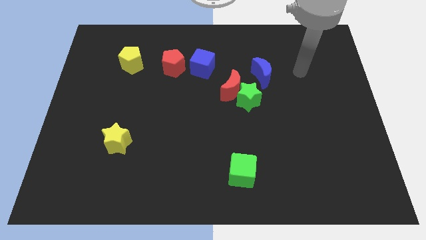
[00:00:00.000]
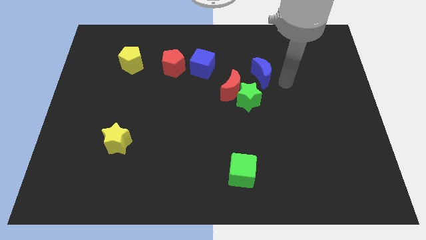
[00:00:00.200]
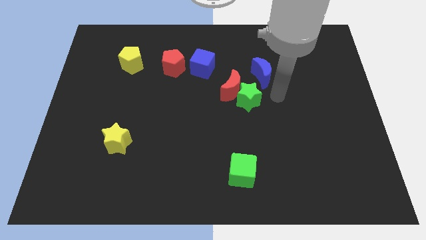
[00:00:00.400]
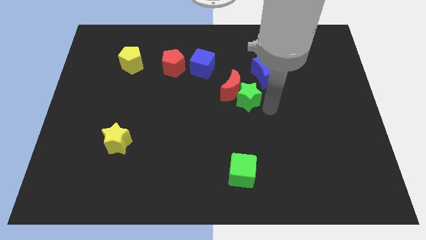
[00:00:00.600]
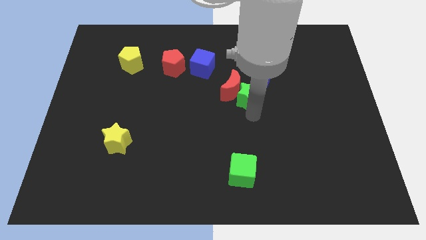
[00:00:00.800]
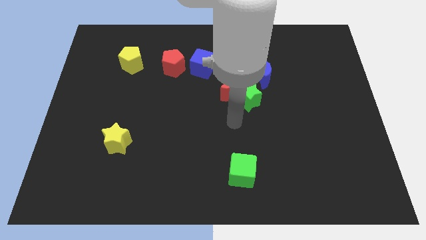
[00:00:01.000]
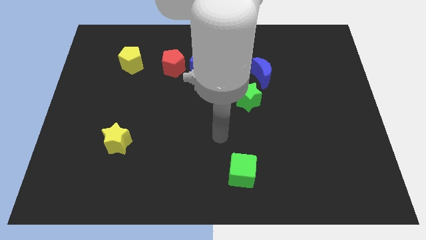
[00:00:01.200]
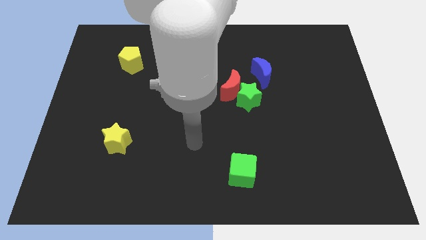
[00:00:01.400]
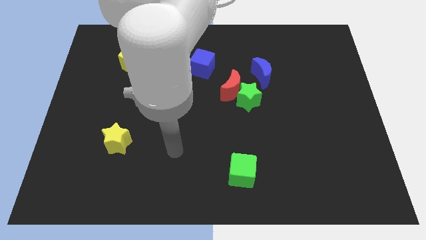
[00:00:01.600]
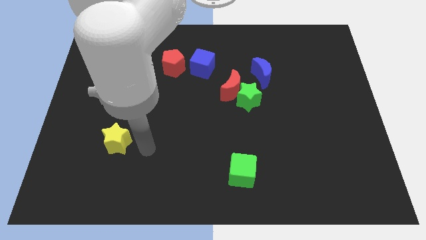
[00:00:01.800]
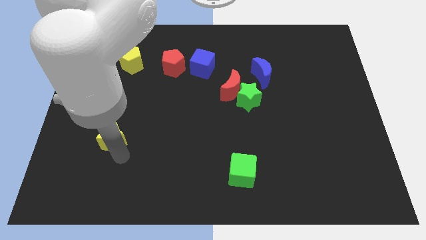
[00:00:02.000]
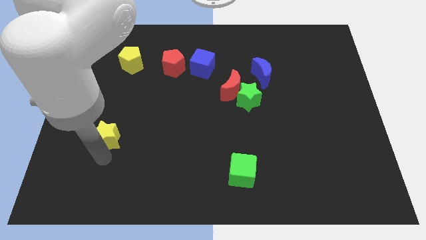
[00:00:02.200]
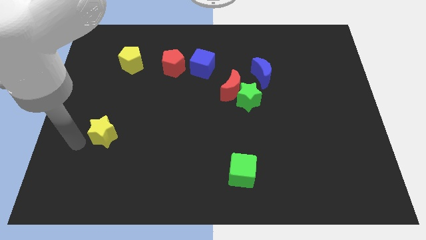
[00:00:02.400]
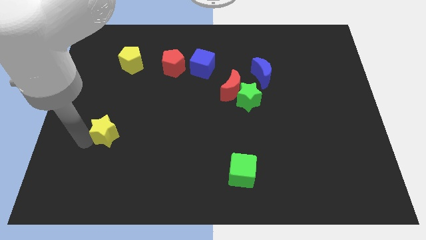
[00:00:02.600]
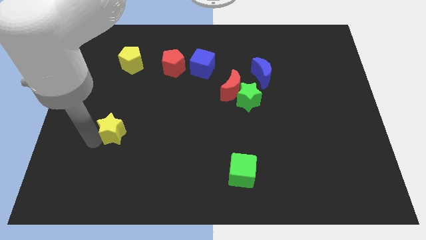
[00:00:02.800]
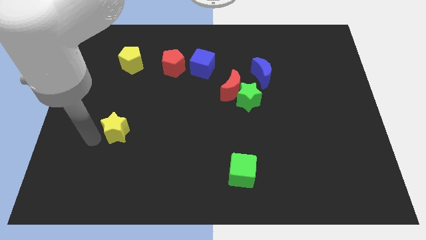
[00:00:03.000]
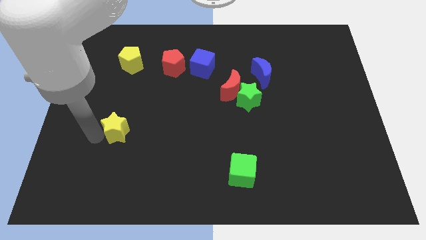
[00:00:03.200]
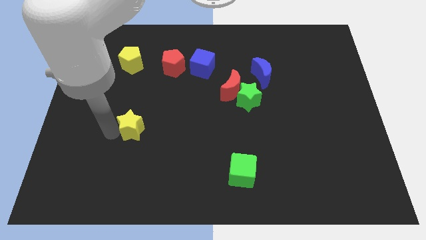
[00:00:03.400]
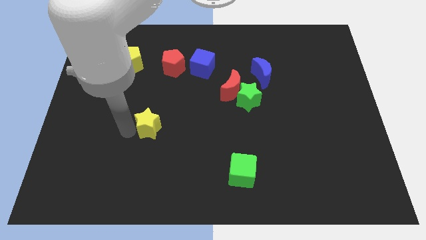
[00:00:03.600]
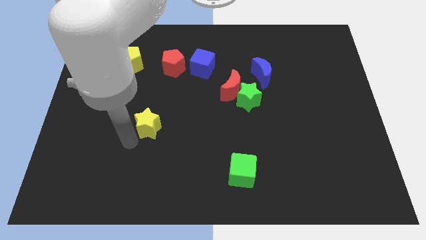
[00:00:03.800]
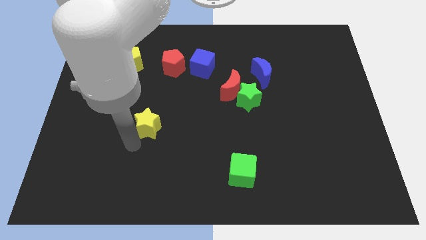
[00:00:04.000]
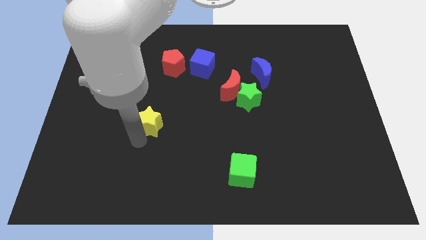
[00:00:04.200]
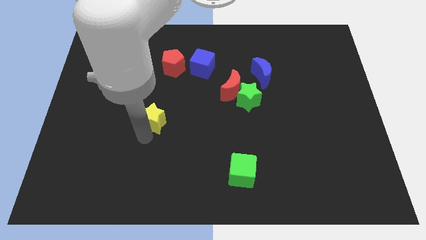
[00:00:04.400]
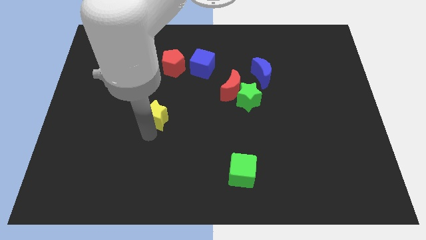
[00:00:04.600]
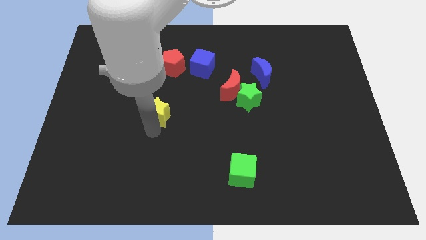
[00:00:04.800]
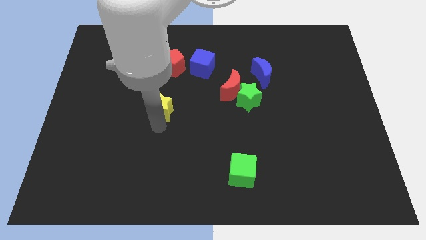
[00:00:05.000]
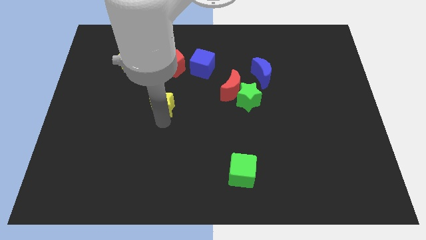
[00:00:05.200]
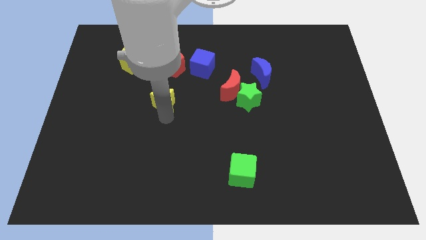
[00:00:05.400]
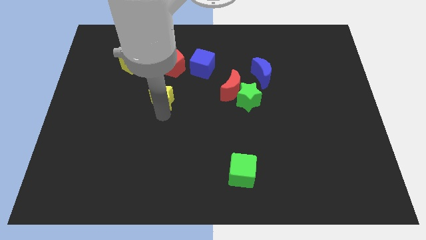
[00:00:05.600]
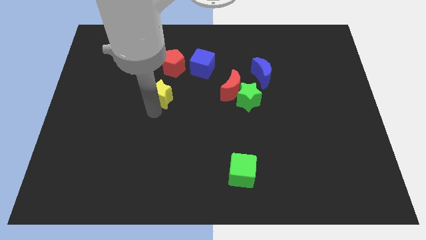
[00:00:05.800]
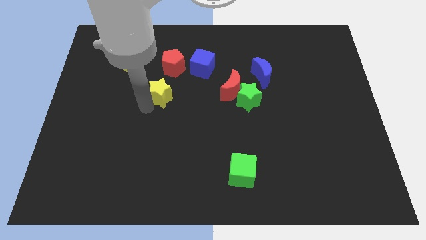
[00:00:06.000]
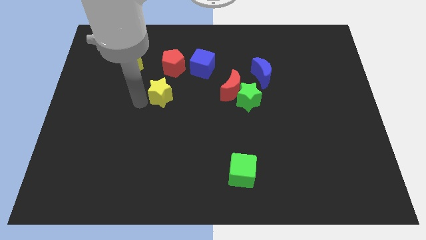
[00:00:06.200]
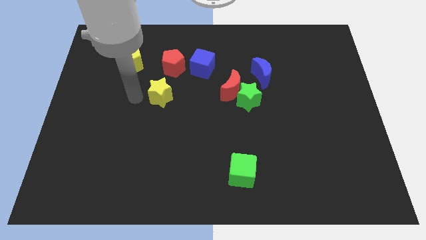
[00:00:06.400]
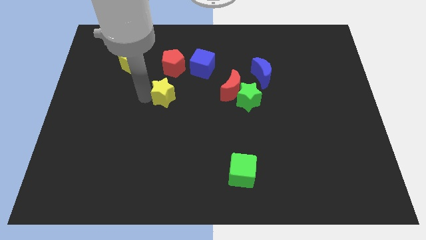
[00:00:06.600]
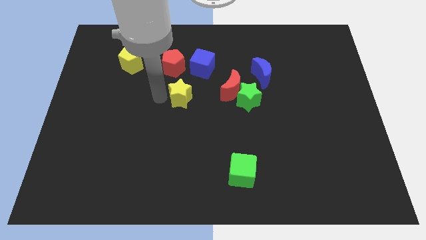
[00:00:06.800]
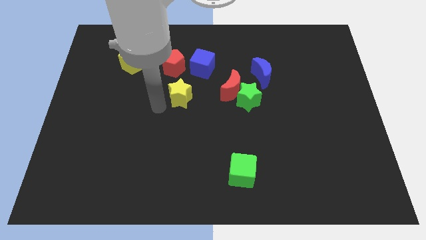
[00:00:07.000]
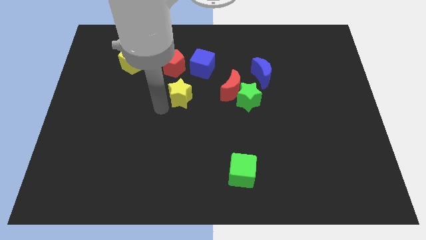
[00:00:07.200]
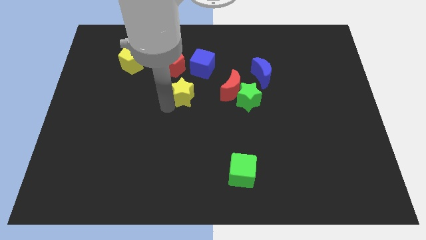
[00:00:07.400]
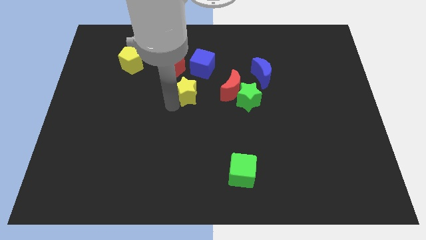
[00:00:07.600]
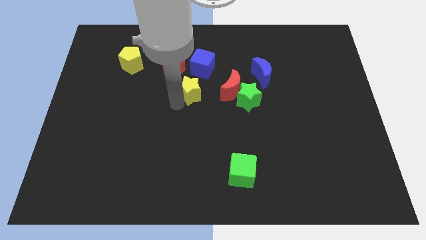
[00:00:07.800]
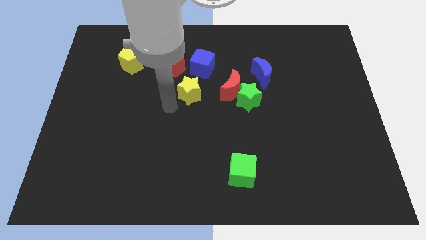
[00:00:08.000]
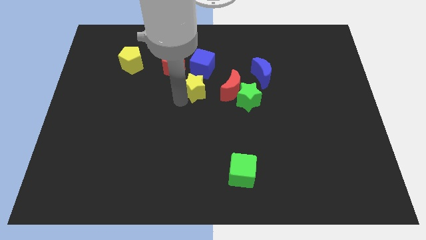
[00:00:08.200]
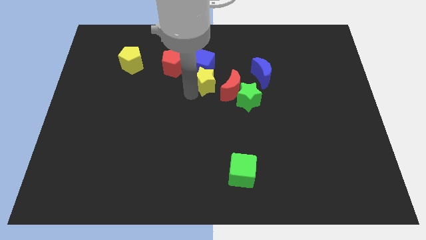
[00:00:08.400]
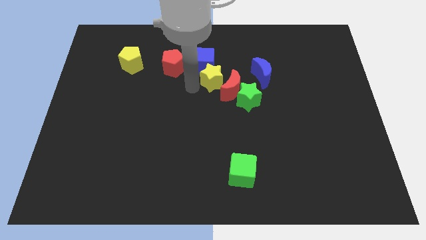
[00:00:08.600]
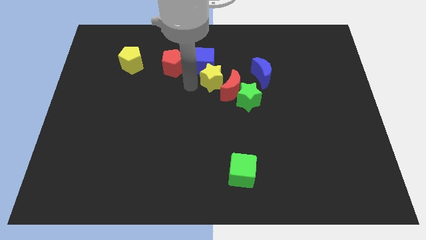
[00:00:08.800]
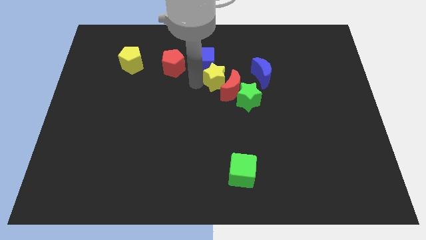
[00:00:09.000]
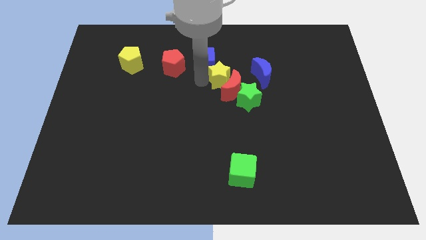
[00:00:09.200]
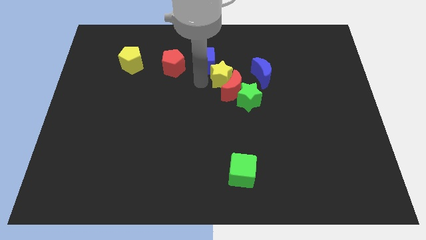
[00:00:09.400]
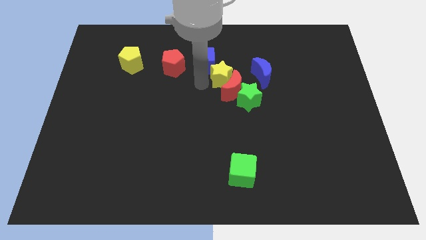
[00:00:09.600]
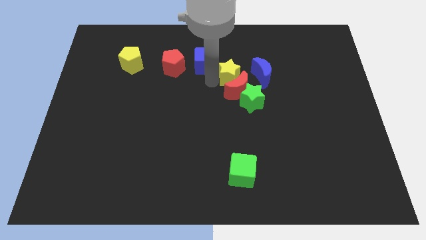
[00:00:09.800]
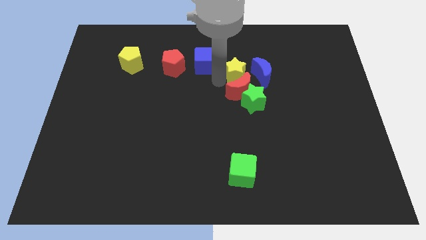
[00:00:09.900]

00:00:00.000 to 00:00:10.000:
put the yellow star to the top left side of the blue moon

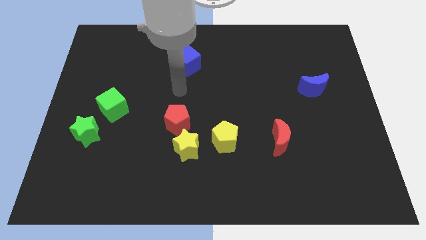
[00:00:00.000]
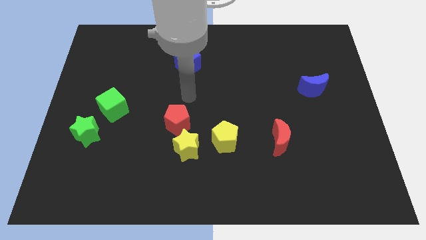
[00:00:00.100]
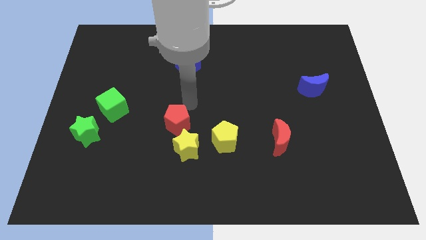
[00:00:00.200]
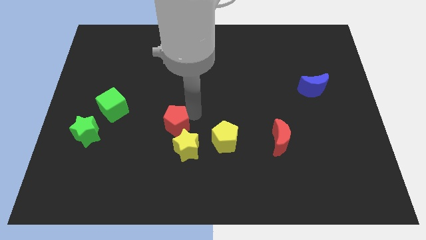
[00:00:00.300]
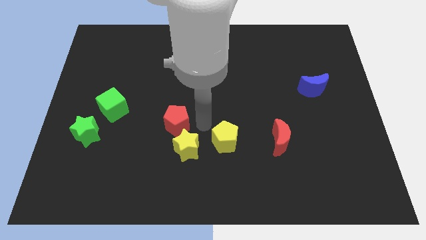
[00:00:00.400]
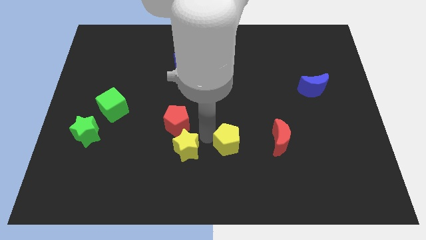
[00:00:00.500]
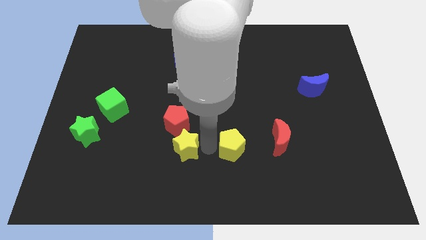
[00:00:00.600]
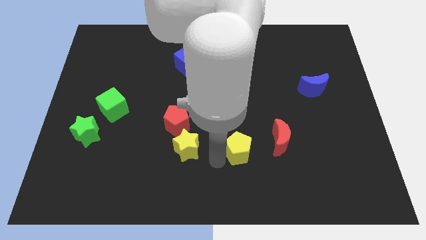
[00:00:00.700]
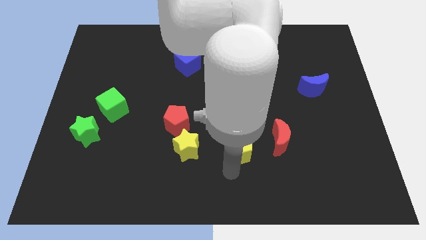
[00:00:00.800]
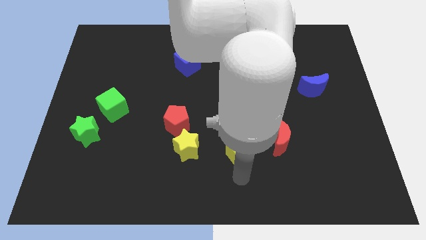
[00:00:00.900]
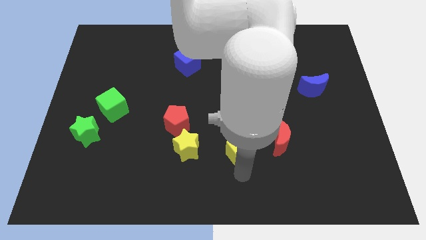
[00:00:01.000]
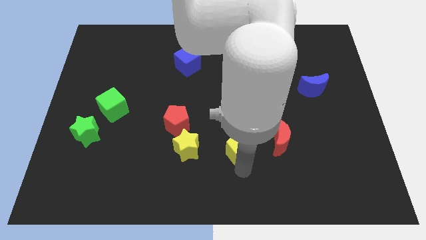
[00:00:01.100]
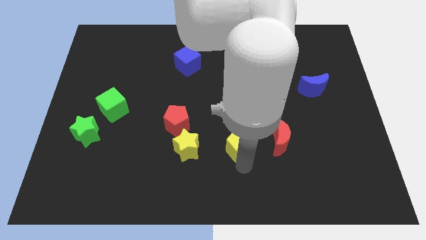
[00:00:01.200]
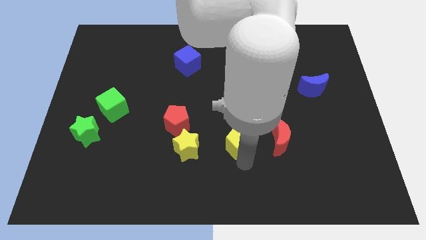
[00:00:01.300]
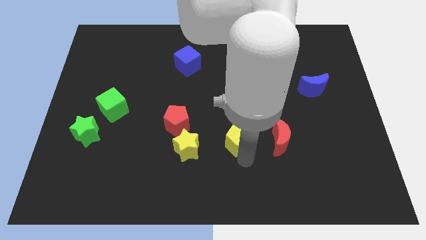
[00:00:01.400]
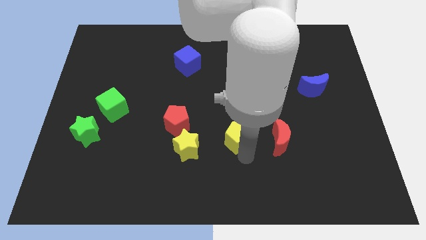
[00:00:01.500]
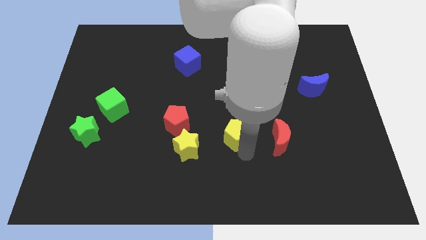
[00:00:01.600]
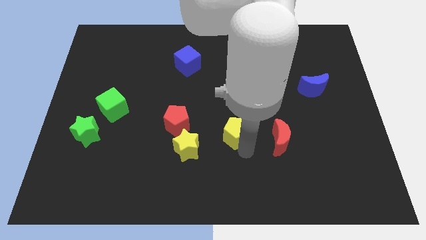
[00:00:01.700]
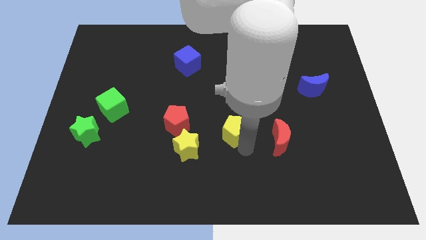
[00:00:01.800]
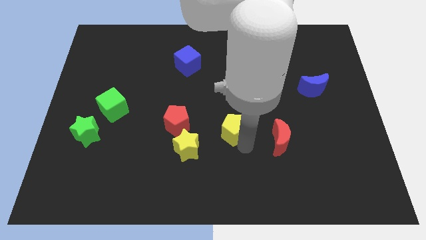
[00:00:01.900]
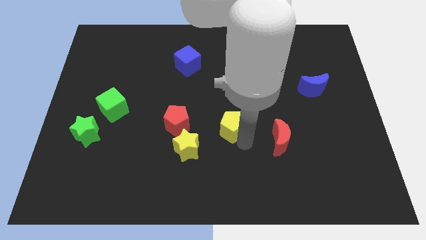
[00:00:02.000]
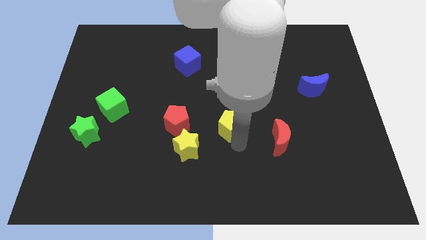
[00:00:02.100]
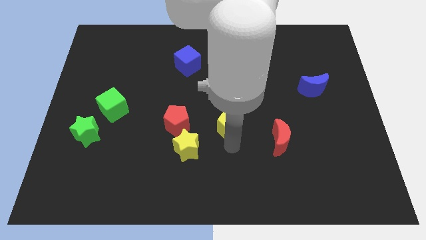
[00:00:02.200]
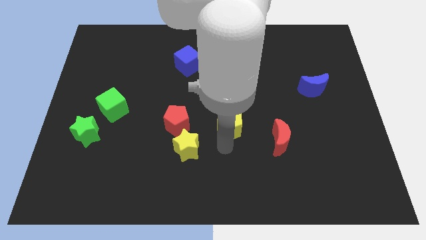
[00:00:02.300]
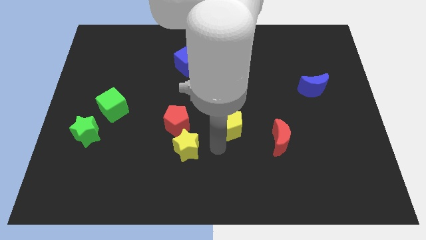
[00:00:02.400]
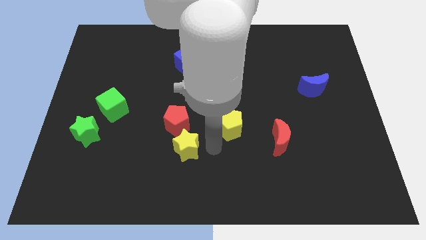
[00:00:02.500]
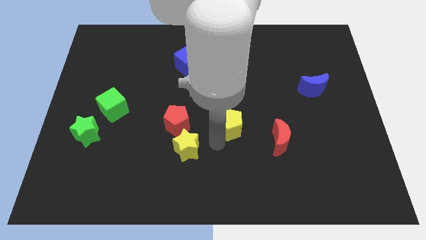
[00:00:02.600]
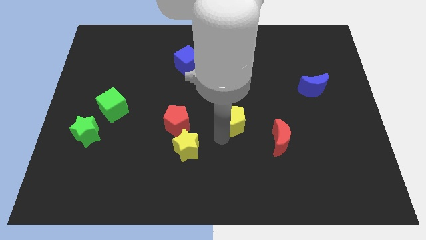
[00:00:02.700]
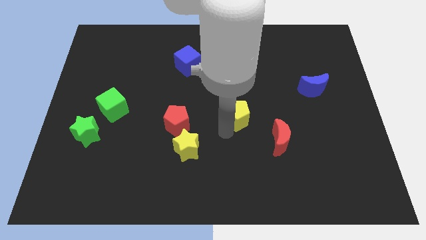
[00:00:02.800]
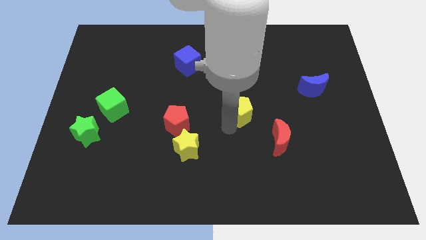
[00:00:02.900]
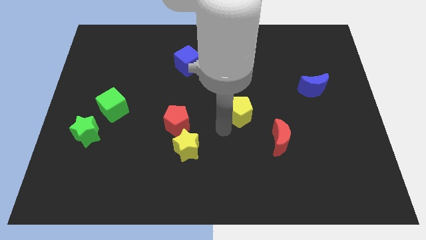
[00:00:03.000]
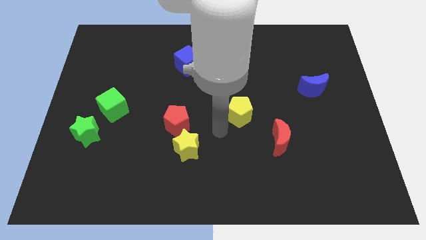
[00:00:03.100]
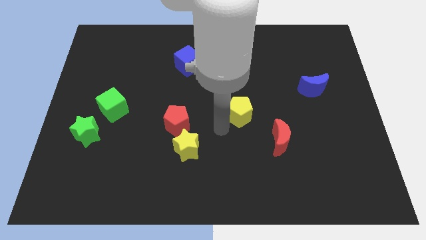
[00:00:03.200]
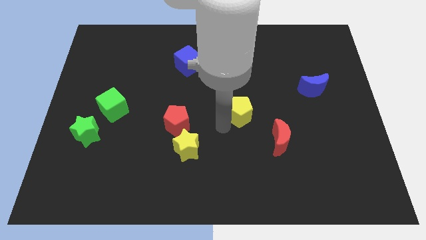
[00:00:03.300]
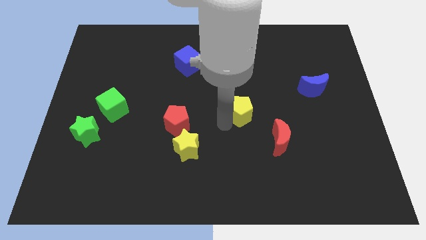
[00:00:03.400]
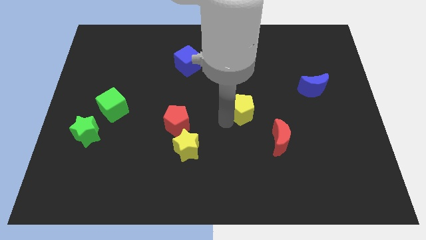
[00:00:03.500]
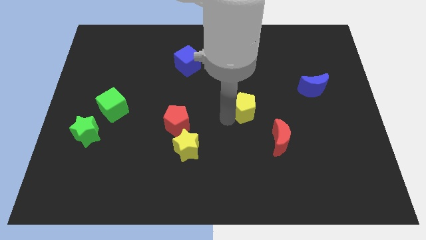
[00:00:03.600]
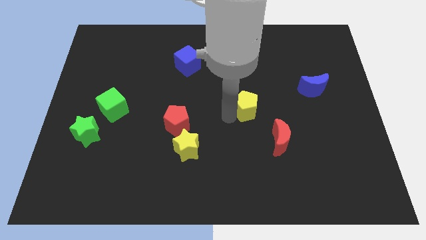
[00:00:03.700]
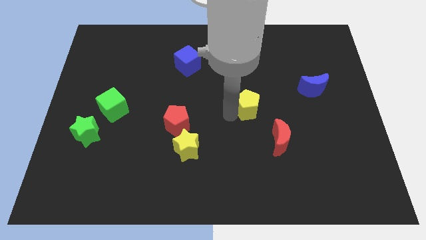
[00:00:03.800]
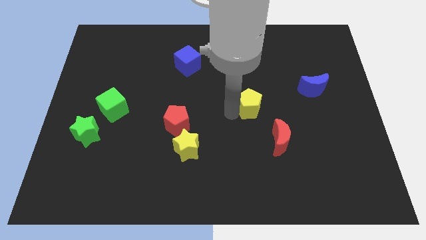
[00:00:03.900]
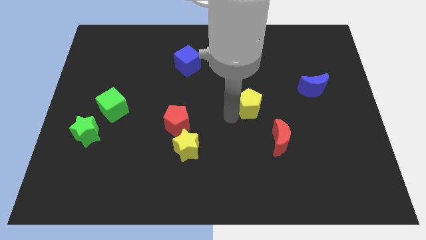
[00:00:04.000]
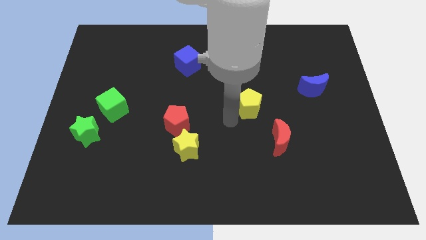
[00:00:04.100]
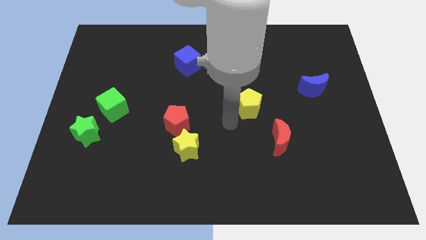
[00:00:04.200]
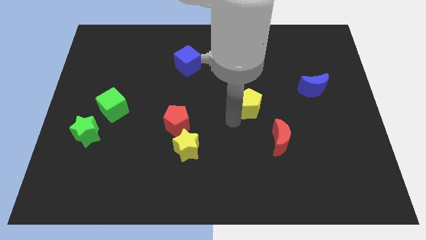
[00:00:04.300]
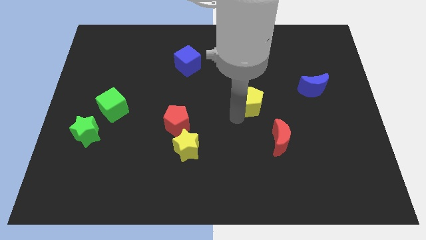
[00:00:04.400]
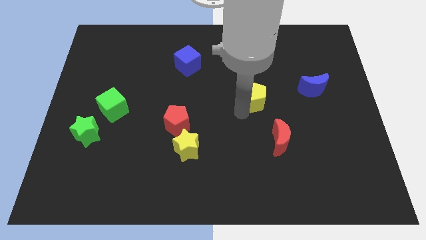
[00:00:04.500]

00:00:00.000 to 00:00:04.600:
slide the yellow pentagon left of the blue moon
